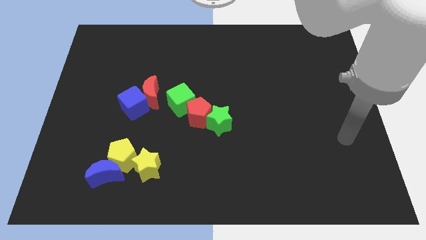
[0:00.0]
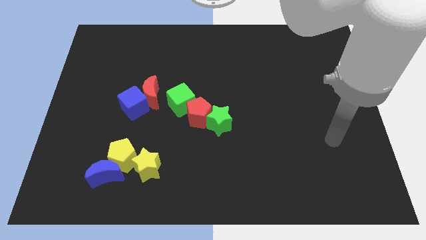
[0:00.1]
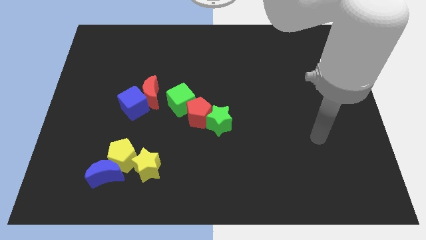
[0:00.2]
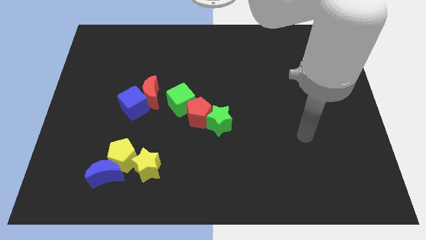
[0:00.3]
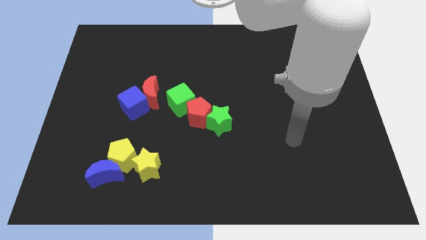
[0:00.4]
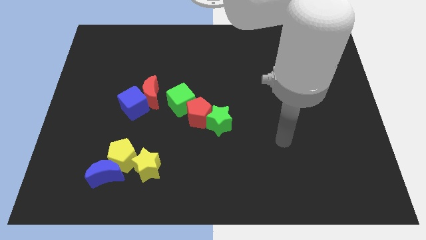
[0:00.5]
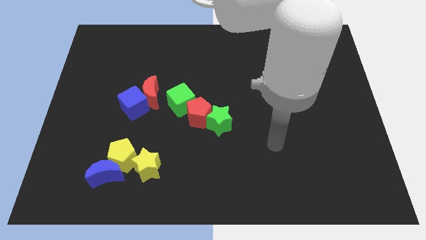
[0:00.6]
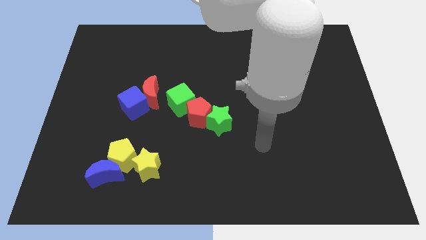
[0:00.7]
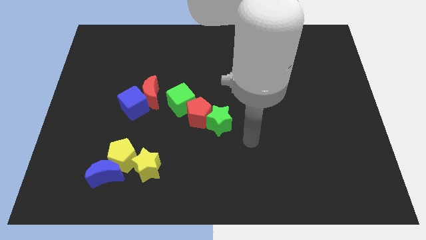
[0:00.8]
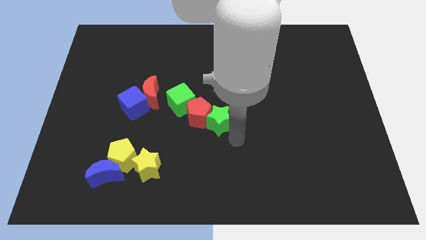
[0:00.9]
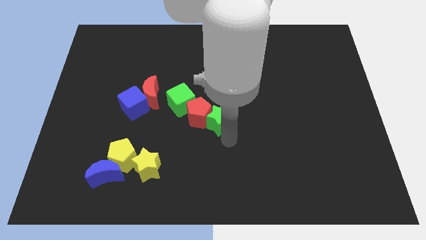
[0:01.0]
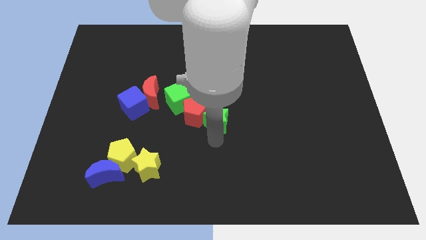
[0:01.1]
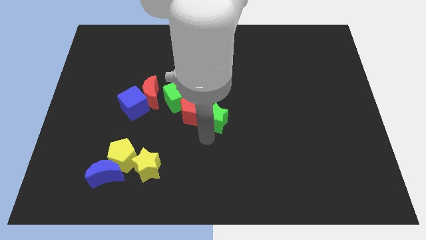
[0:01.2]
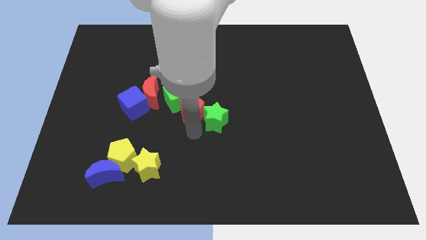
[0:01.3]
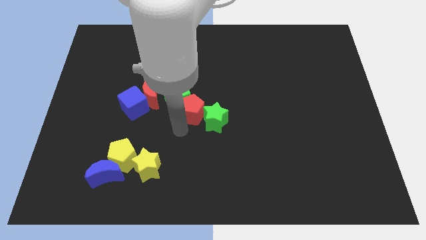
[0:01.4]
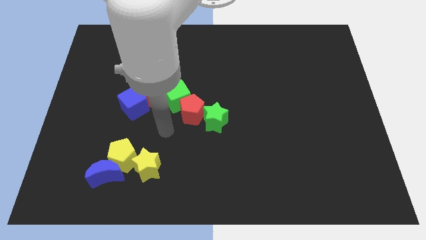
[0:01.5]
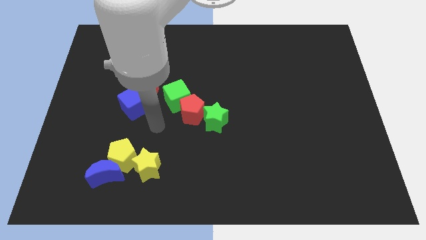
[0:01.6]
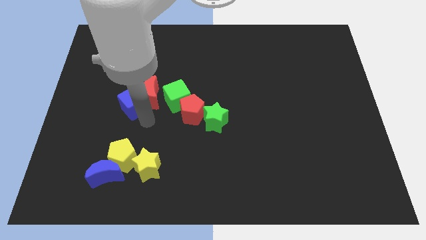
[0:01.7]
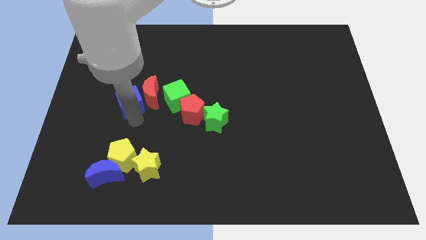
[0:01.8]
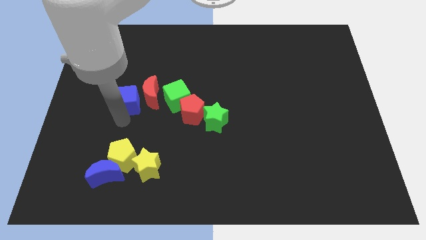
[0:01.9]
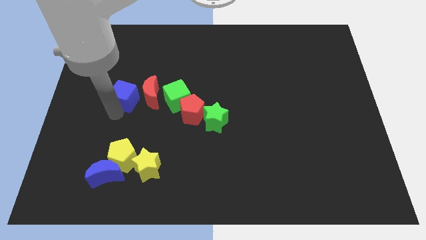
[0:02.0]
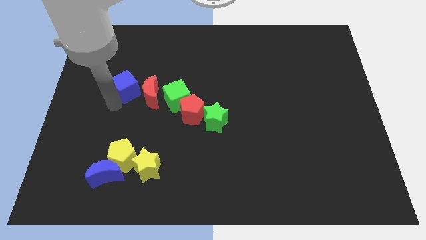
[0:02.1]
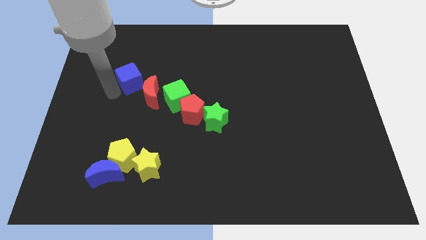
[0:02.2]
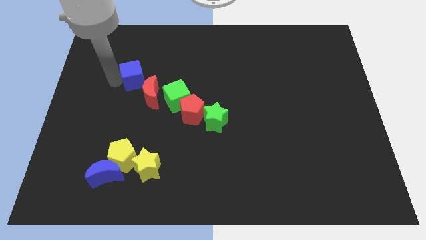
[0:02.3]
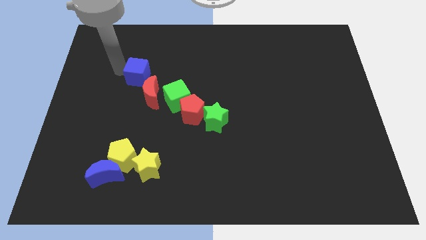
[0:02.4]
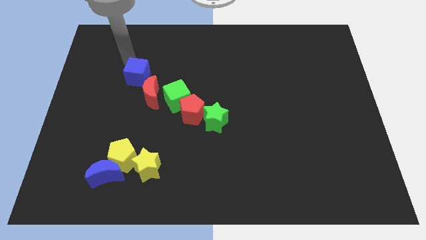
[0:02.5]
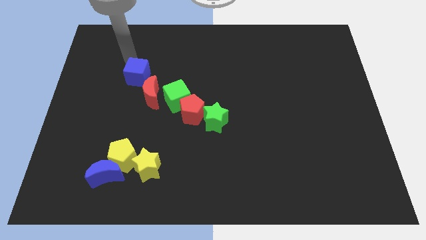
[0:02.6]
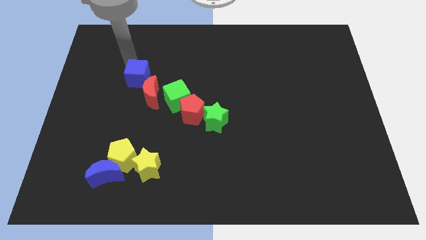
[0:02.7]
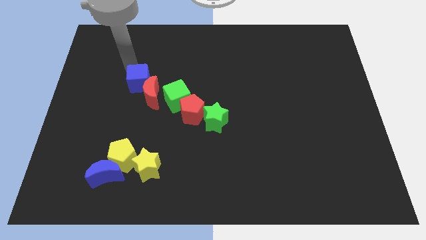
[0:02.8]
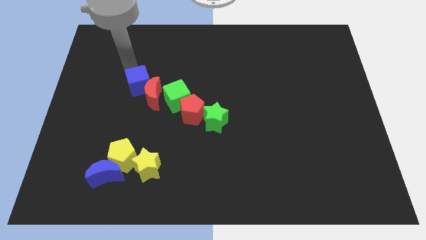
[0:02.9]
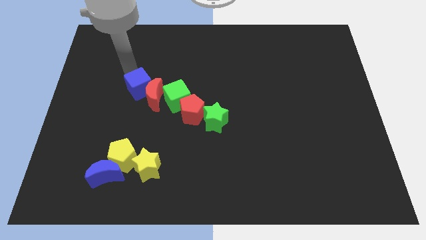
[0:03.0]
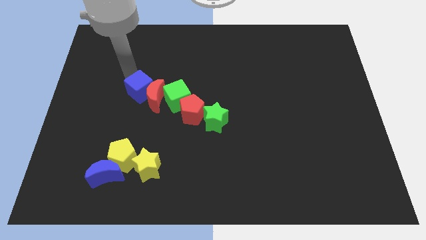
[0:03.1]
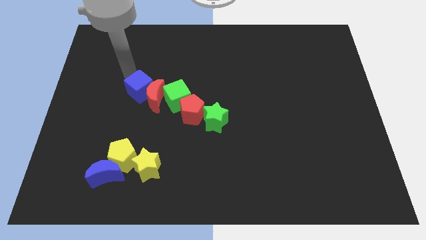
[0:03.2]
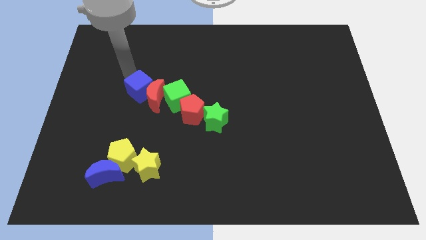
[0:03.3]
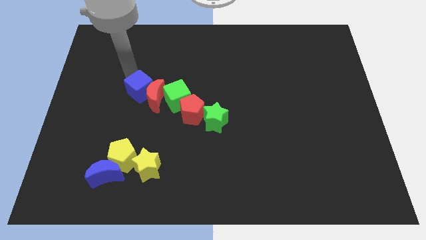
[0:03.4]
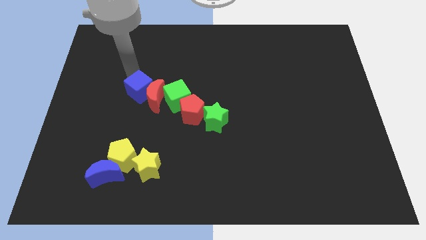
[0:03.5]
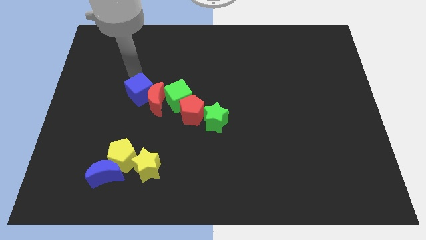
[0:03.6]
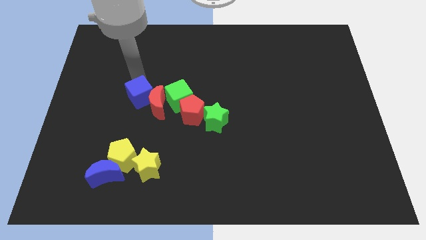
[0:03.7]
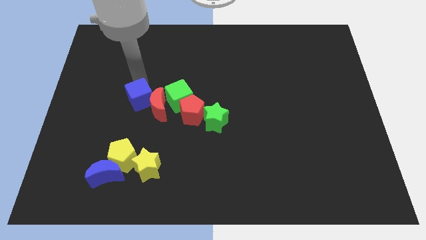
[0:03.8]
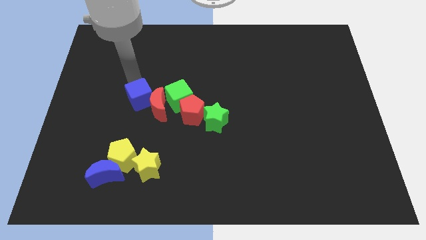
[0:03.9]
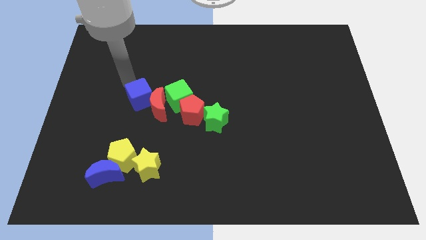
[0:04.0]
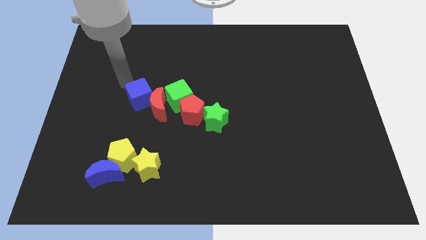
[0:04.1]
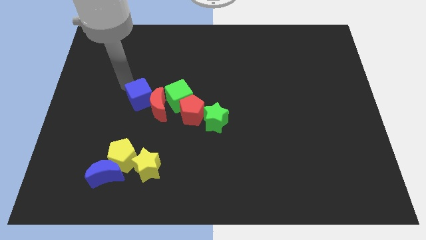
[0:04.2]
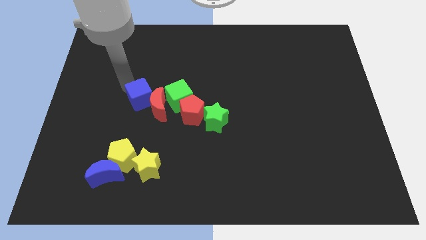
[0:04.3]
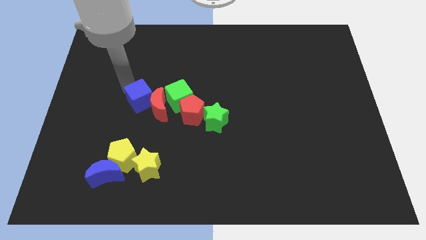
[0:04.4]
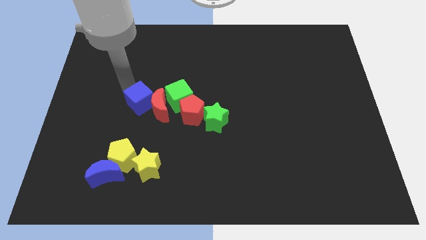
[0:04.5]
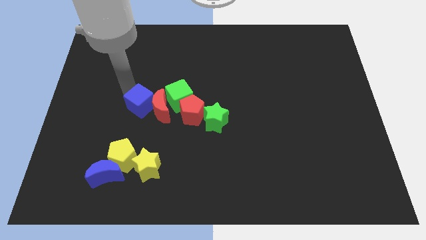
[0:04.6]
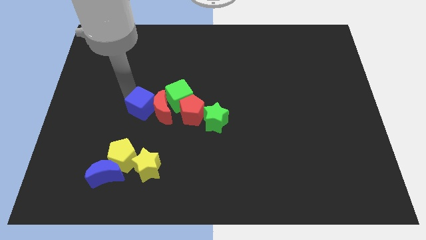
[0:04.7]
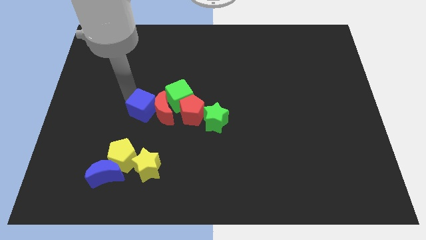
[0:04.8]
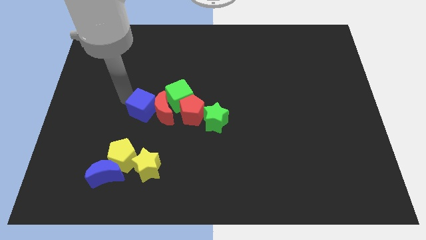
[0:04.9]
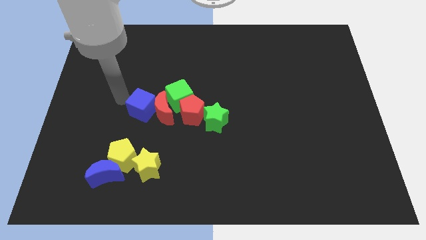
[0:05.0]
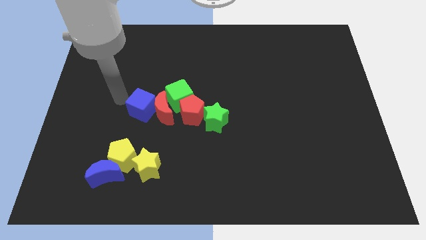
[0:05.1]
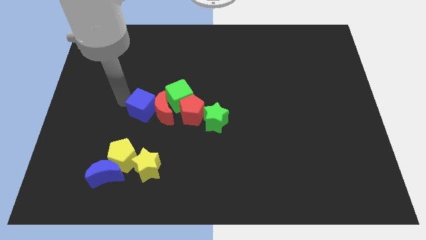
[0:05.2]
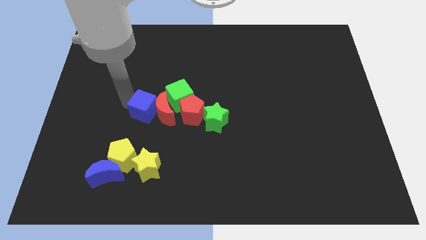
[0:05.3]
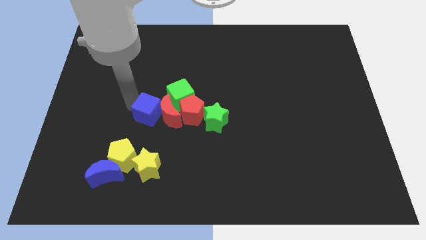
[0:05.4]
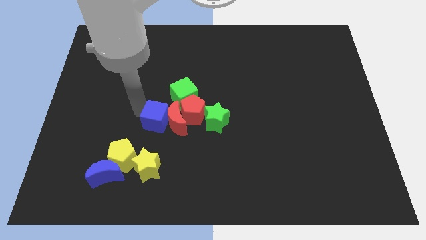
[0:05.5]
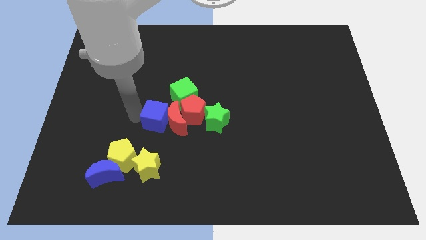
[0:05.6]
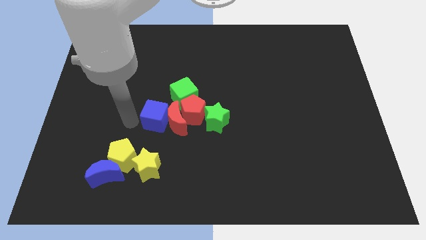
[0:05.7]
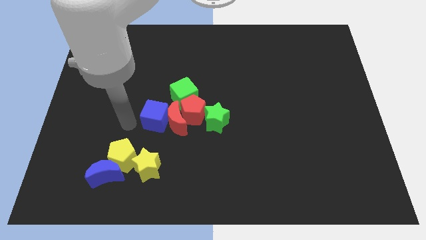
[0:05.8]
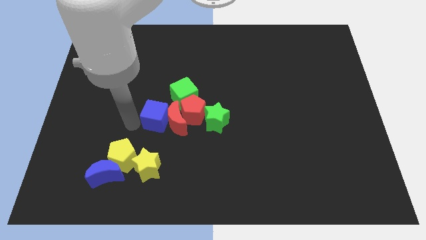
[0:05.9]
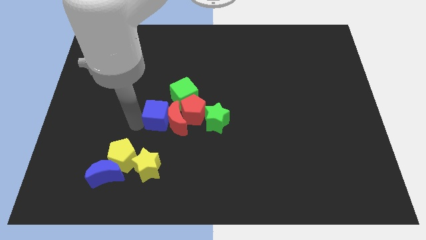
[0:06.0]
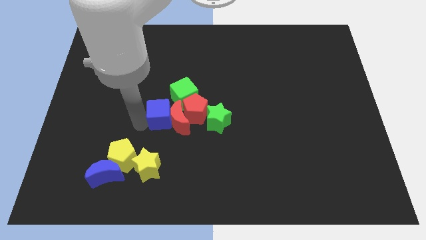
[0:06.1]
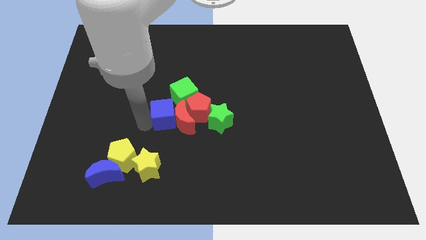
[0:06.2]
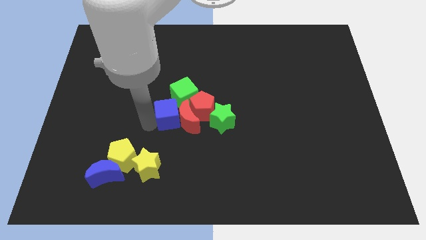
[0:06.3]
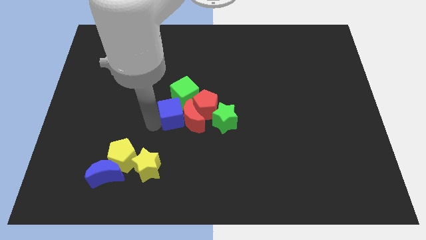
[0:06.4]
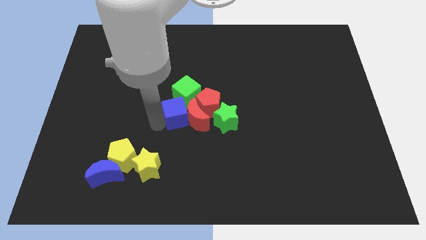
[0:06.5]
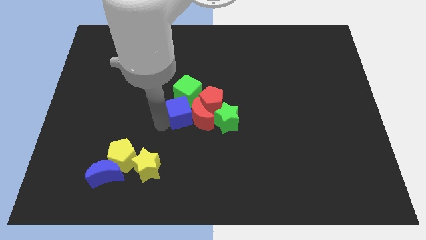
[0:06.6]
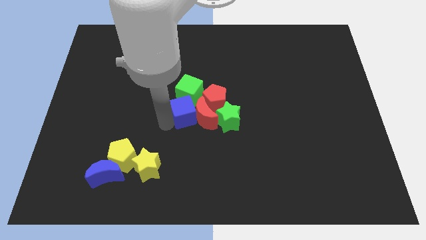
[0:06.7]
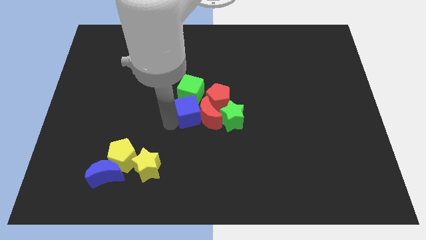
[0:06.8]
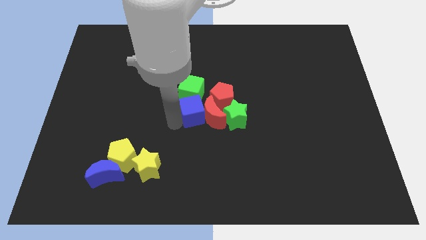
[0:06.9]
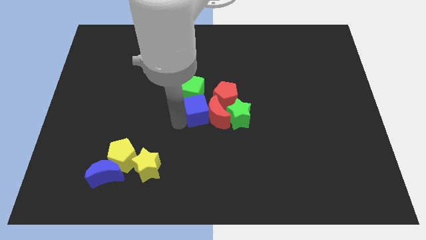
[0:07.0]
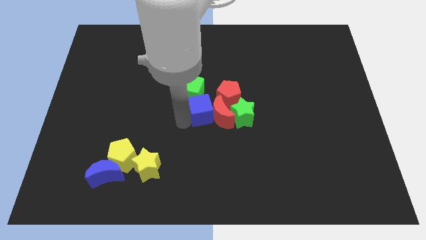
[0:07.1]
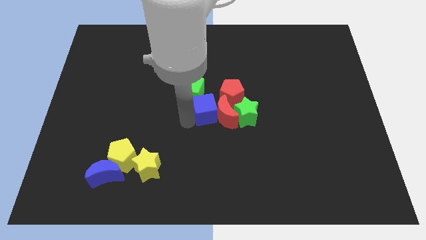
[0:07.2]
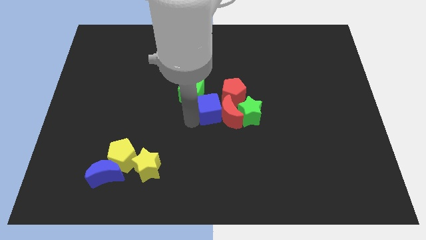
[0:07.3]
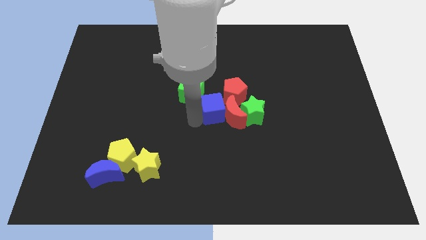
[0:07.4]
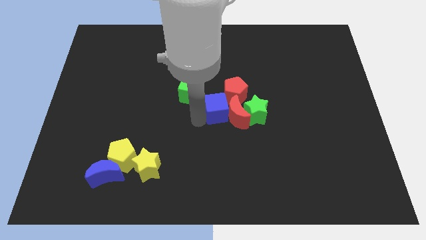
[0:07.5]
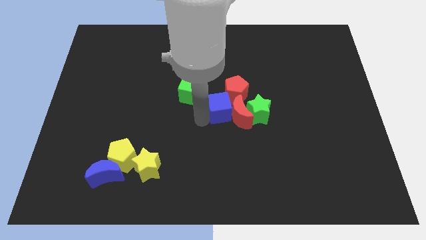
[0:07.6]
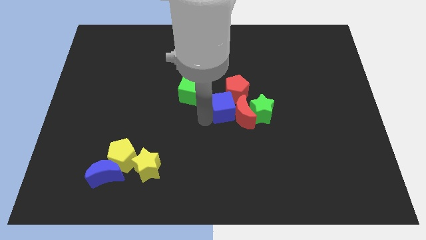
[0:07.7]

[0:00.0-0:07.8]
slide the blue cube to the red pentagon

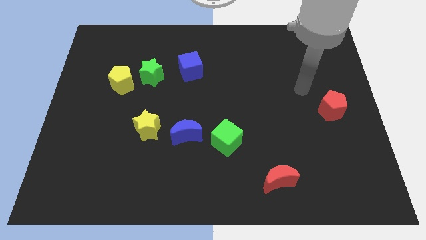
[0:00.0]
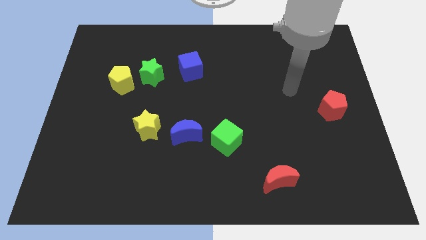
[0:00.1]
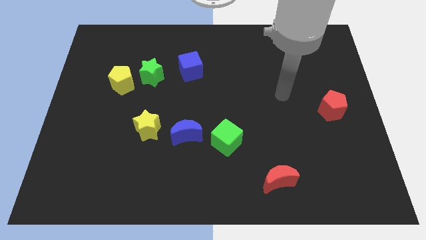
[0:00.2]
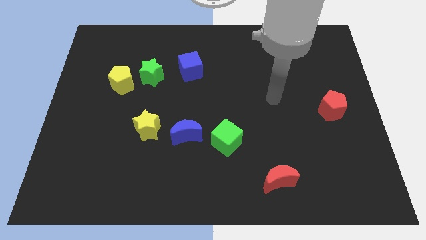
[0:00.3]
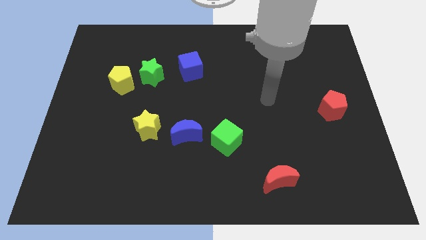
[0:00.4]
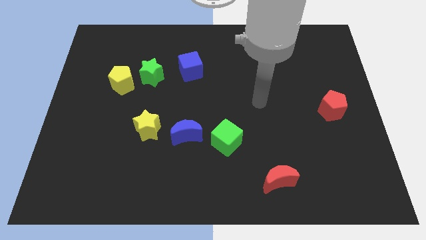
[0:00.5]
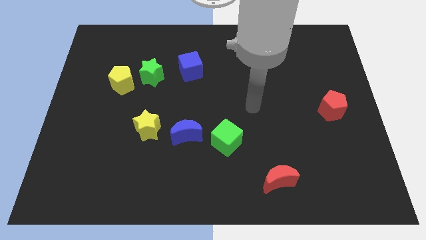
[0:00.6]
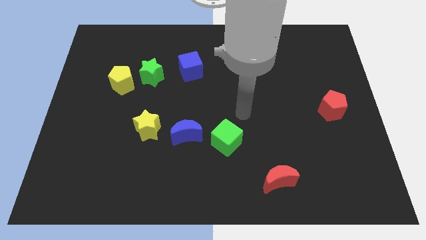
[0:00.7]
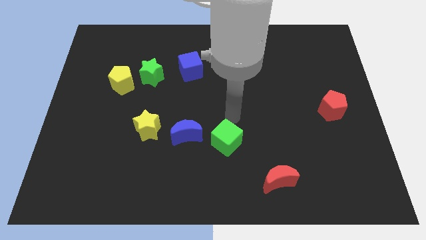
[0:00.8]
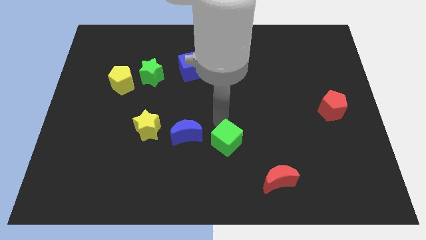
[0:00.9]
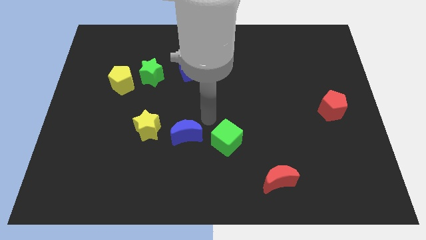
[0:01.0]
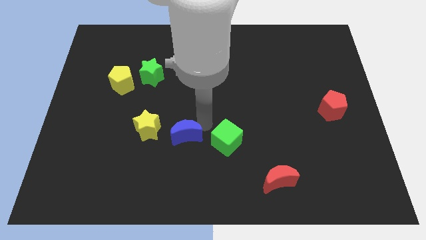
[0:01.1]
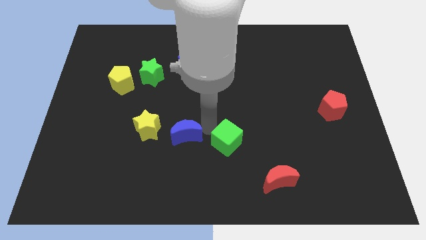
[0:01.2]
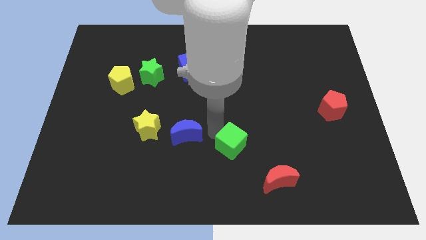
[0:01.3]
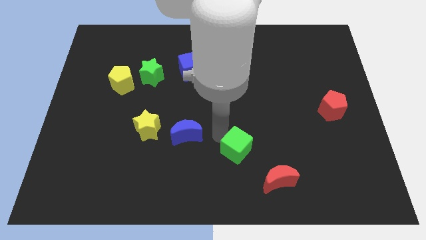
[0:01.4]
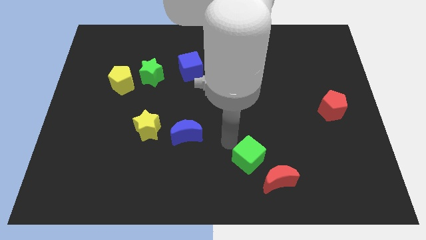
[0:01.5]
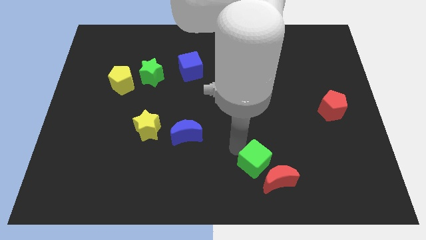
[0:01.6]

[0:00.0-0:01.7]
move the green cube next to the red moon
